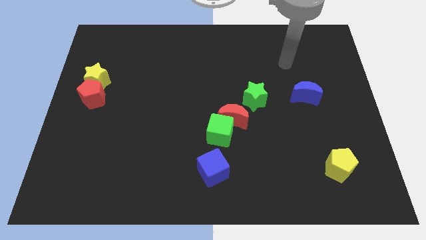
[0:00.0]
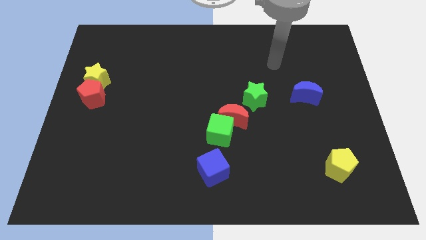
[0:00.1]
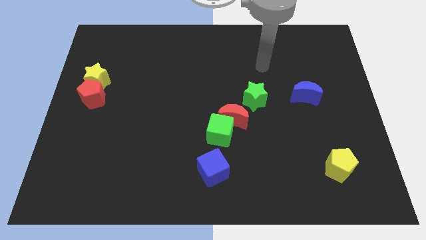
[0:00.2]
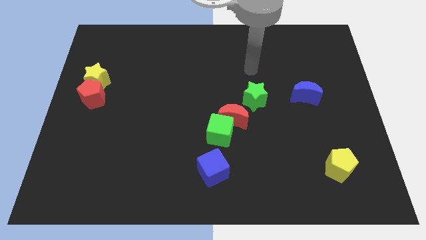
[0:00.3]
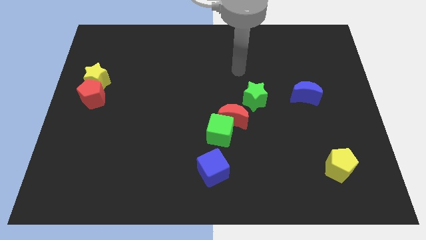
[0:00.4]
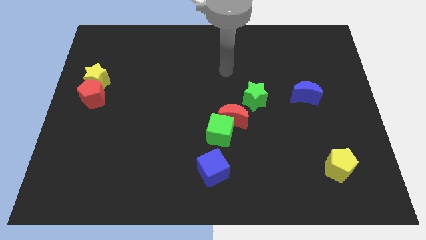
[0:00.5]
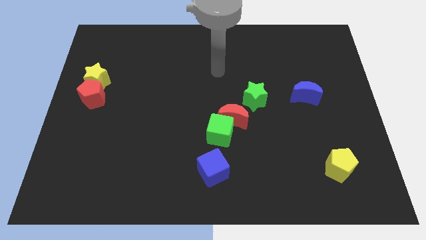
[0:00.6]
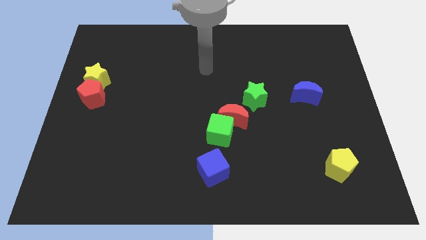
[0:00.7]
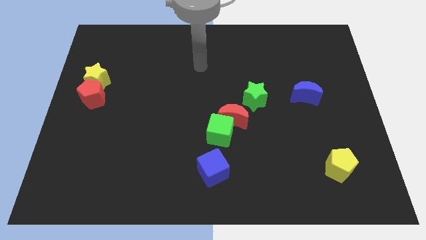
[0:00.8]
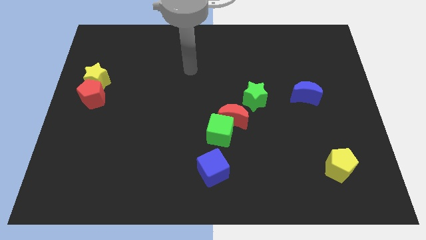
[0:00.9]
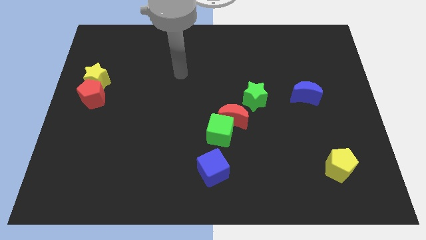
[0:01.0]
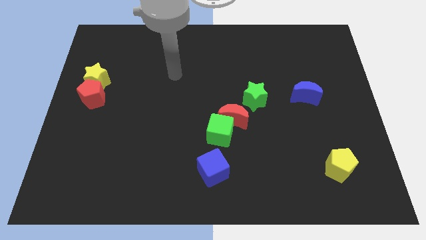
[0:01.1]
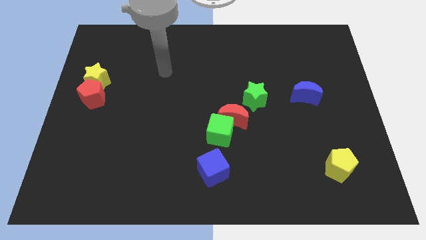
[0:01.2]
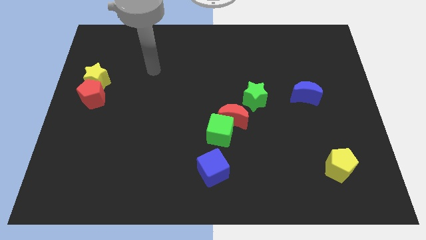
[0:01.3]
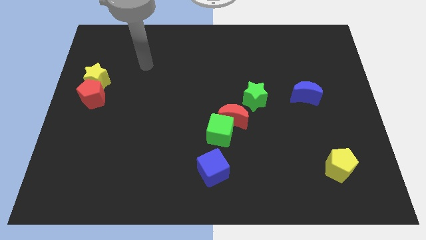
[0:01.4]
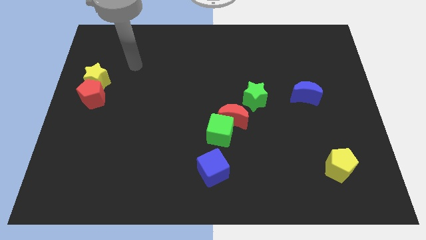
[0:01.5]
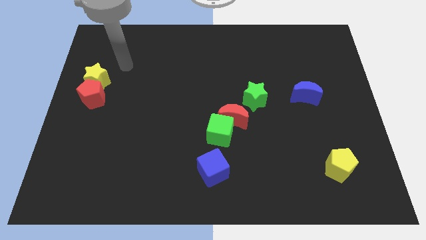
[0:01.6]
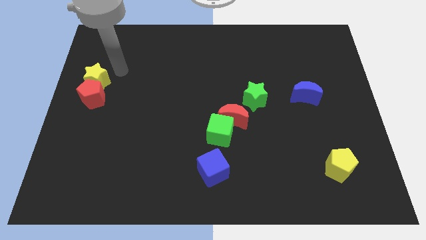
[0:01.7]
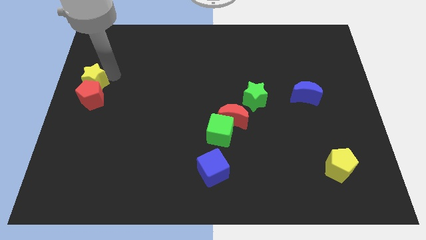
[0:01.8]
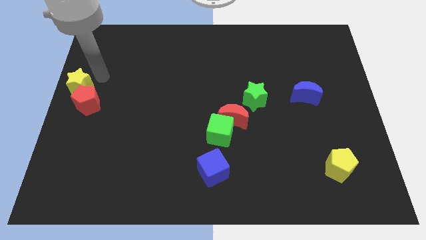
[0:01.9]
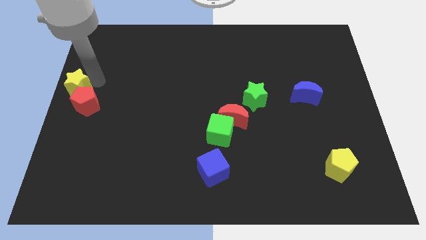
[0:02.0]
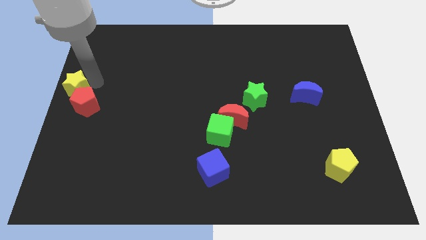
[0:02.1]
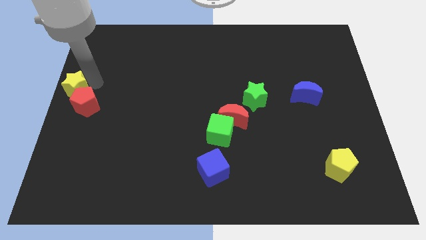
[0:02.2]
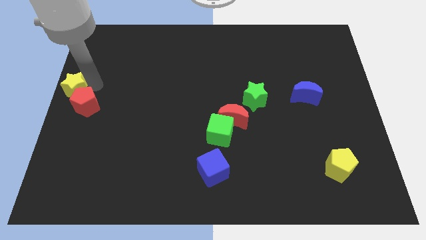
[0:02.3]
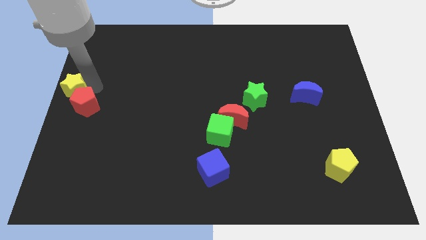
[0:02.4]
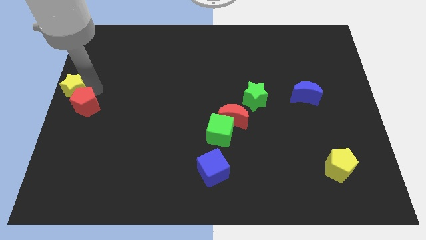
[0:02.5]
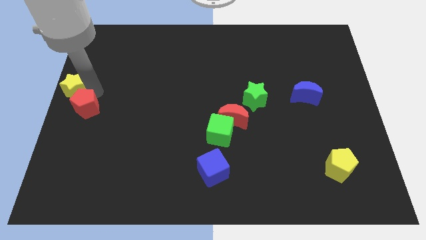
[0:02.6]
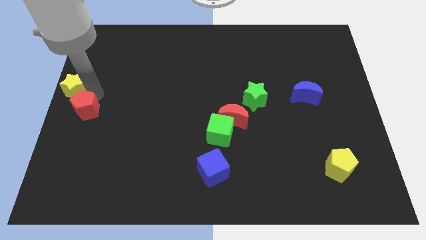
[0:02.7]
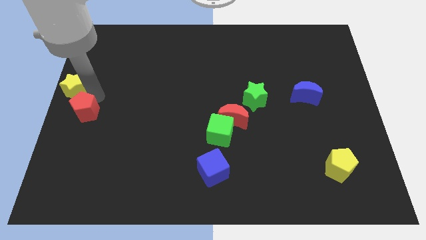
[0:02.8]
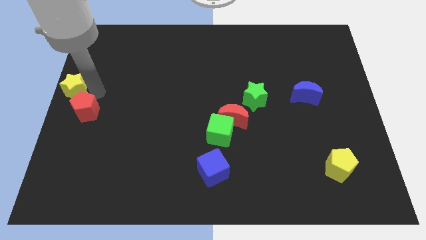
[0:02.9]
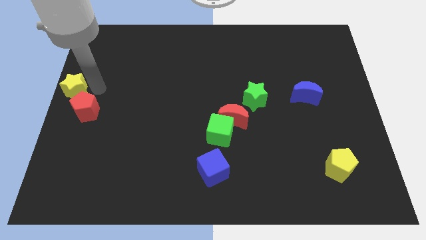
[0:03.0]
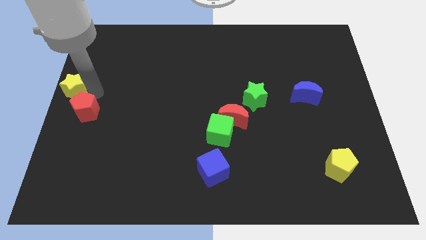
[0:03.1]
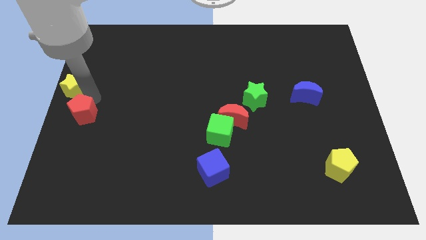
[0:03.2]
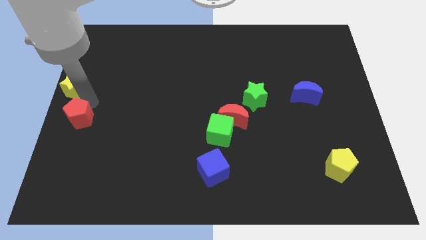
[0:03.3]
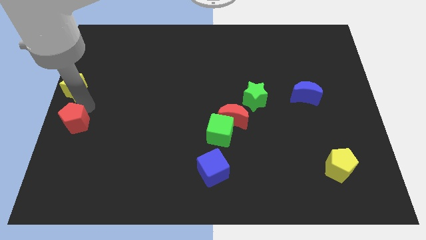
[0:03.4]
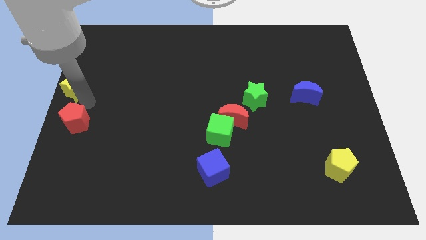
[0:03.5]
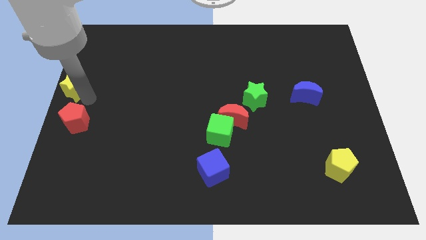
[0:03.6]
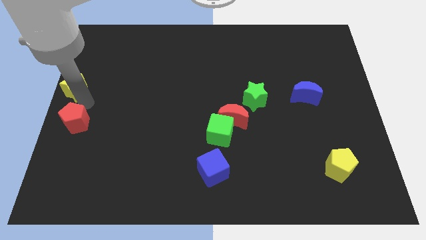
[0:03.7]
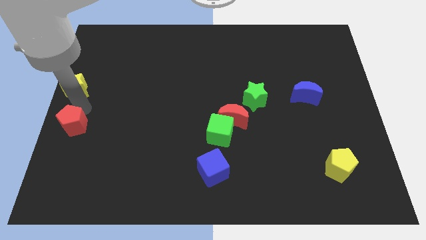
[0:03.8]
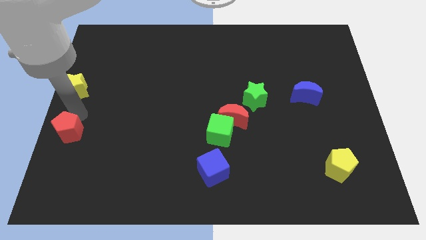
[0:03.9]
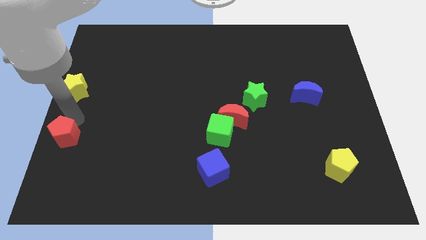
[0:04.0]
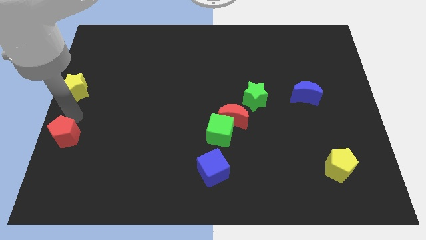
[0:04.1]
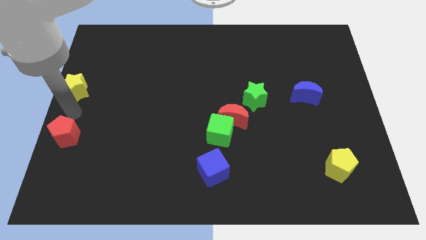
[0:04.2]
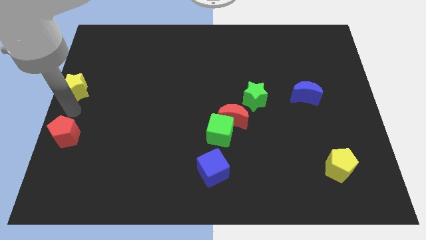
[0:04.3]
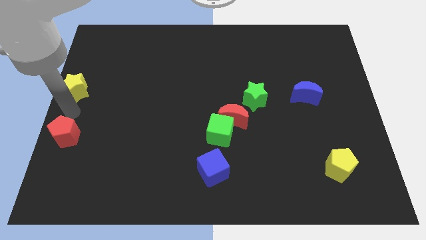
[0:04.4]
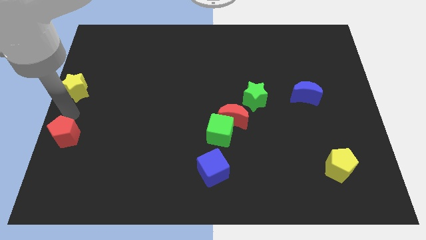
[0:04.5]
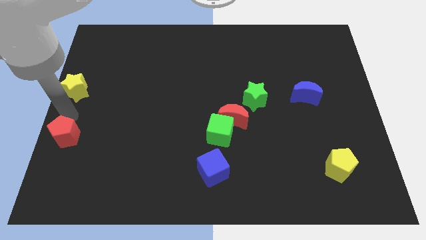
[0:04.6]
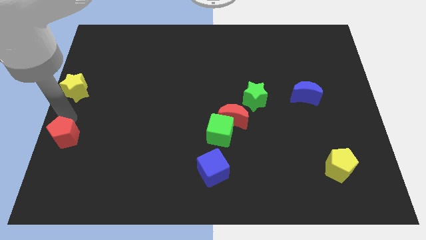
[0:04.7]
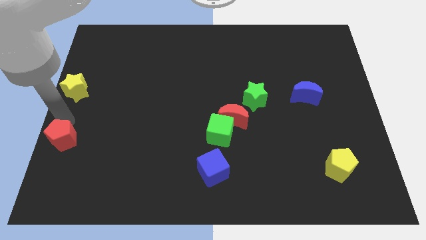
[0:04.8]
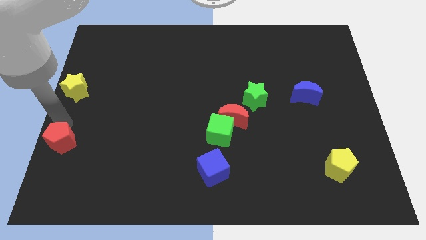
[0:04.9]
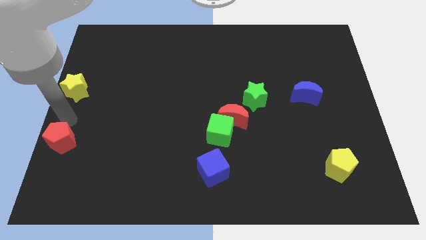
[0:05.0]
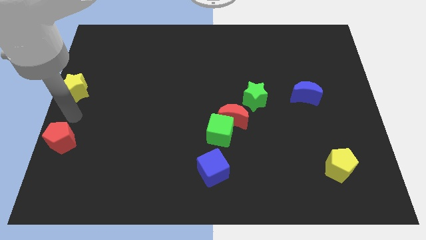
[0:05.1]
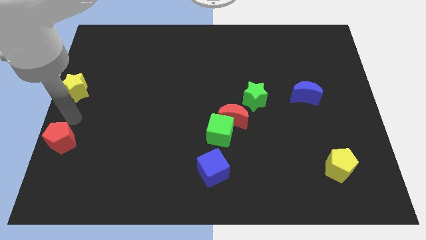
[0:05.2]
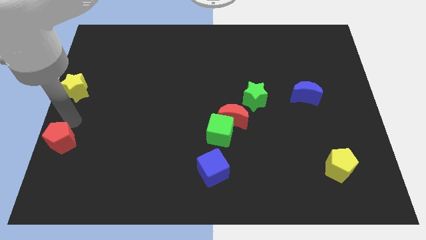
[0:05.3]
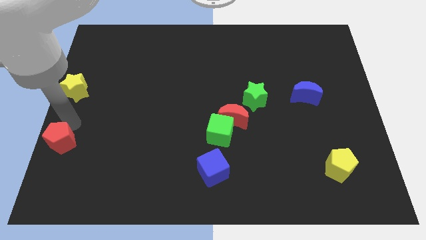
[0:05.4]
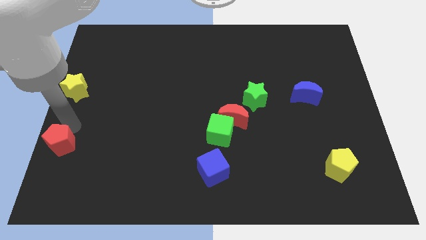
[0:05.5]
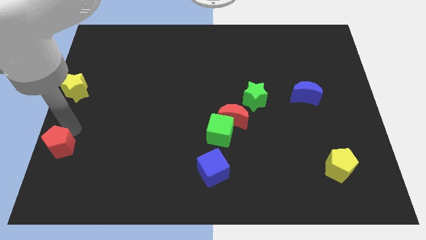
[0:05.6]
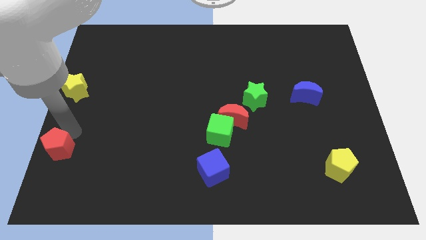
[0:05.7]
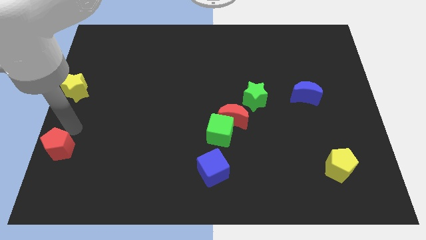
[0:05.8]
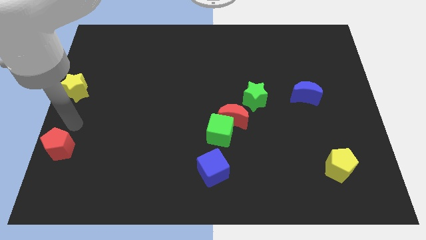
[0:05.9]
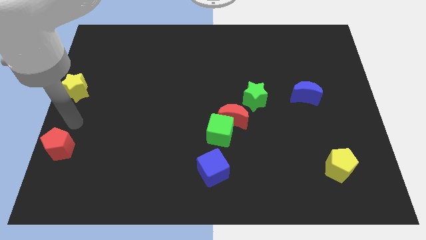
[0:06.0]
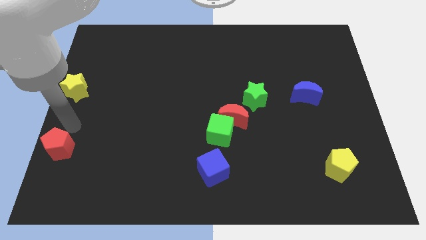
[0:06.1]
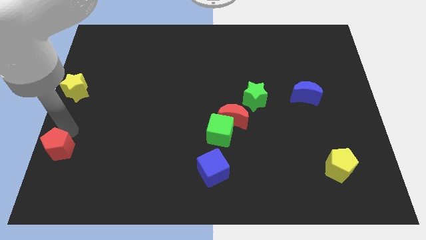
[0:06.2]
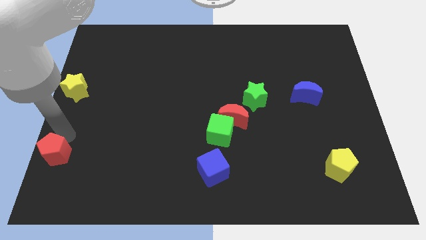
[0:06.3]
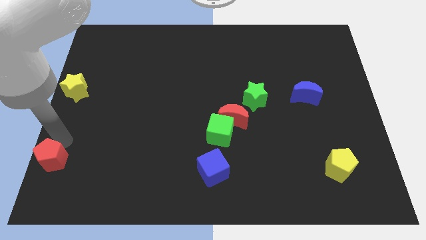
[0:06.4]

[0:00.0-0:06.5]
put the red pentagon to the bottom left of the board

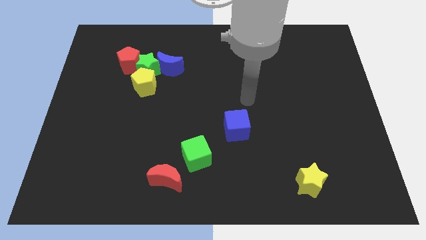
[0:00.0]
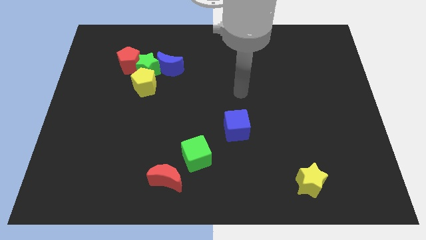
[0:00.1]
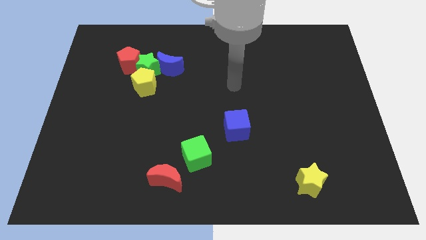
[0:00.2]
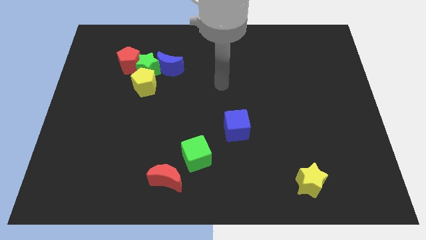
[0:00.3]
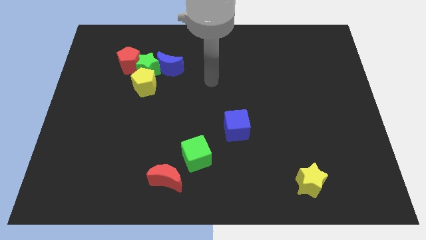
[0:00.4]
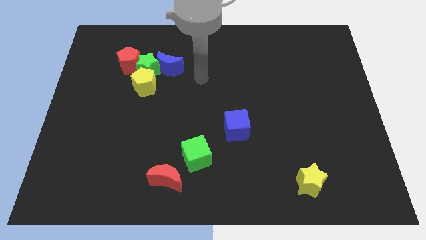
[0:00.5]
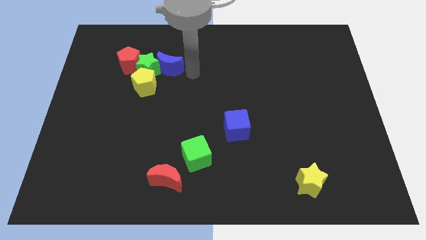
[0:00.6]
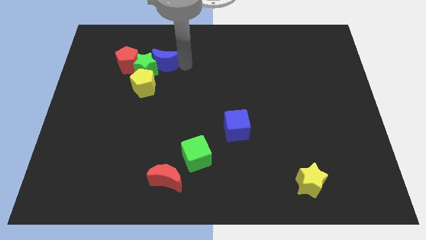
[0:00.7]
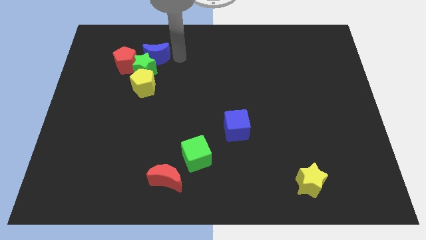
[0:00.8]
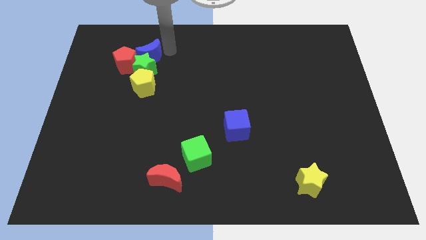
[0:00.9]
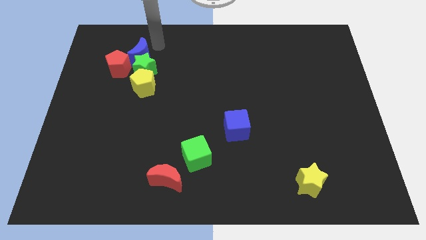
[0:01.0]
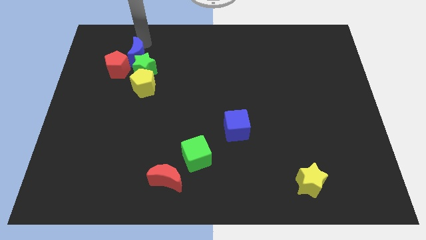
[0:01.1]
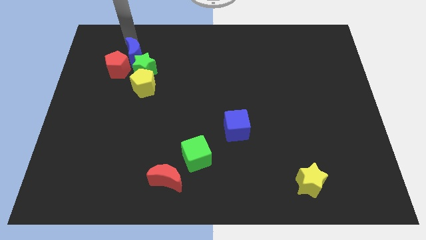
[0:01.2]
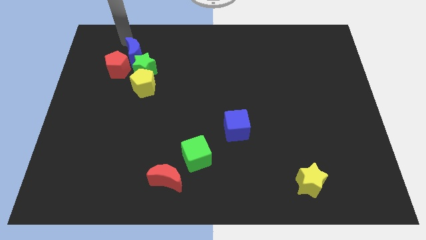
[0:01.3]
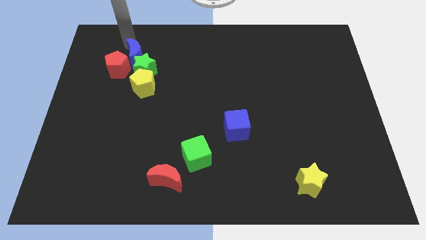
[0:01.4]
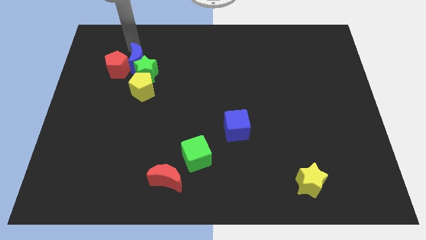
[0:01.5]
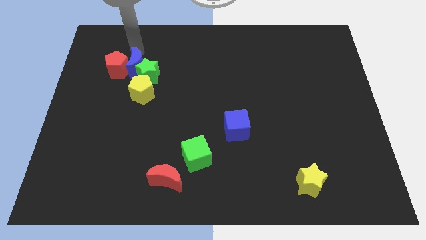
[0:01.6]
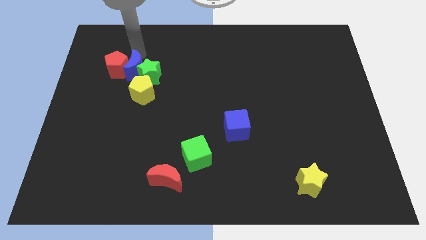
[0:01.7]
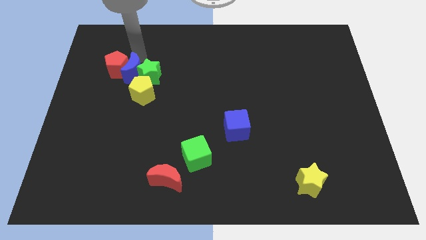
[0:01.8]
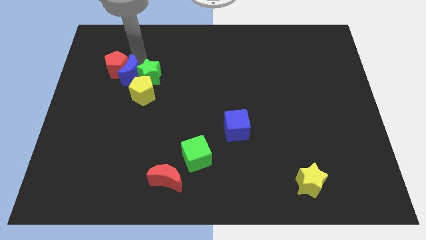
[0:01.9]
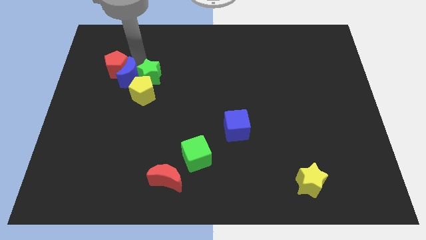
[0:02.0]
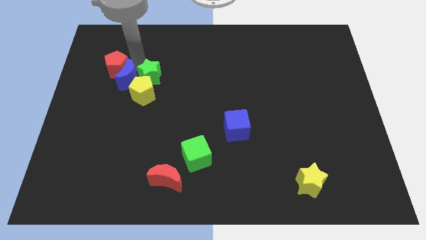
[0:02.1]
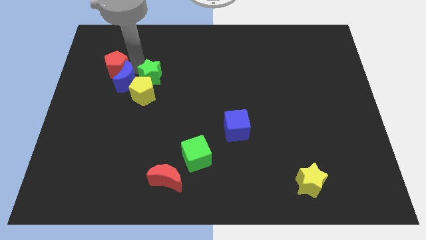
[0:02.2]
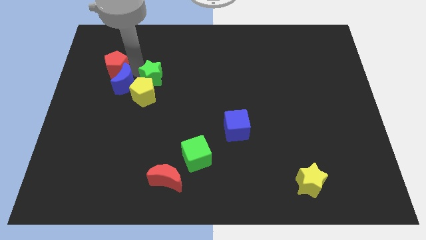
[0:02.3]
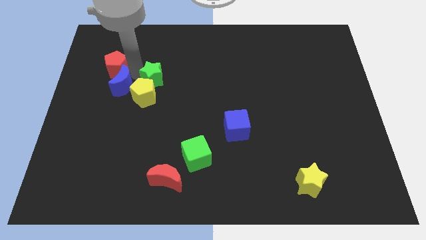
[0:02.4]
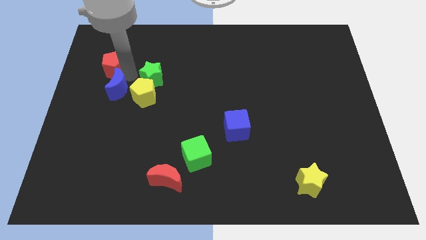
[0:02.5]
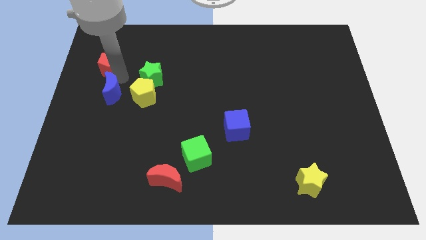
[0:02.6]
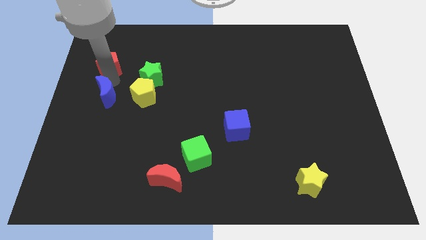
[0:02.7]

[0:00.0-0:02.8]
put the blue moon to the left side of the board
